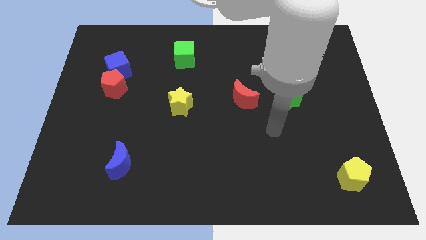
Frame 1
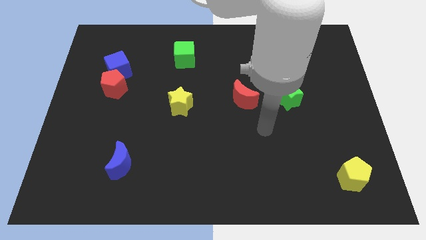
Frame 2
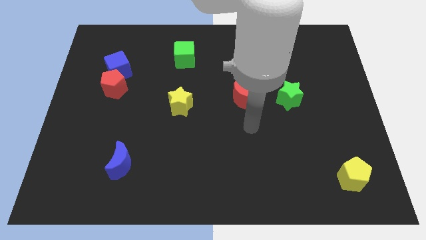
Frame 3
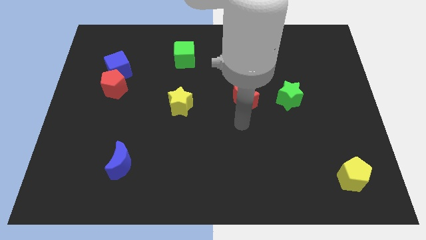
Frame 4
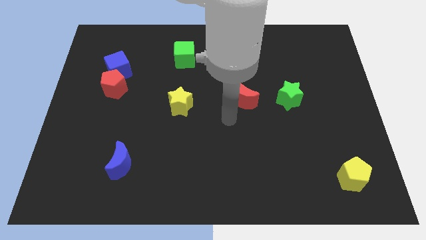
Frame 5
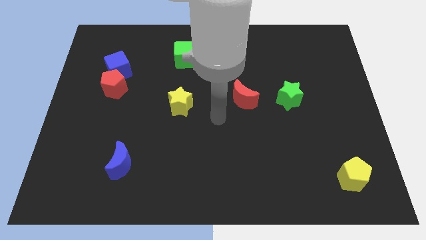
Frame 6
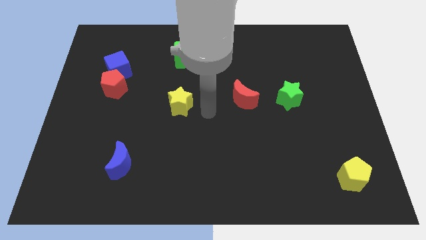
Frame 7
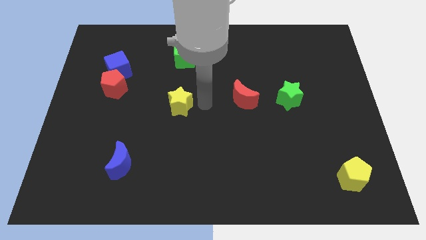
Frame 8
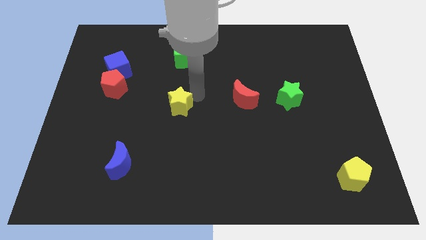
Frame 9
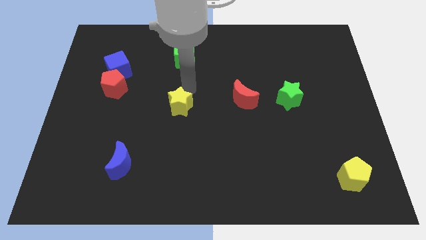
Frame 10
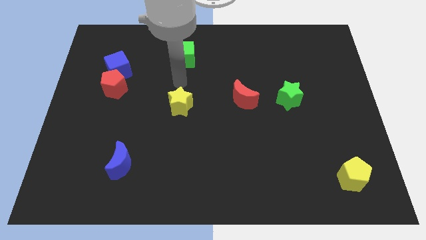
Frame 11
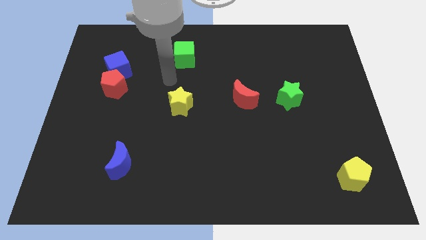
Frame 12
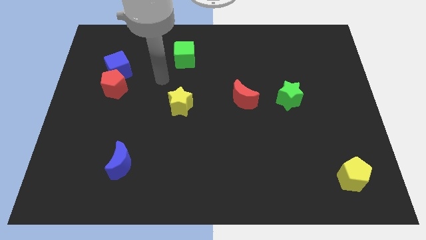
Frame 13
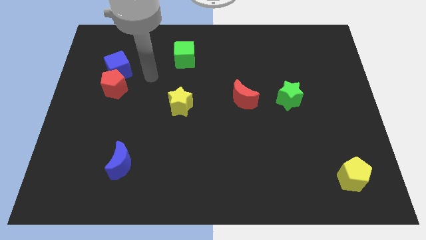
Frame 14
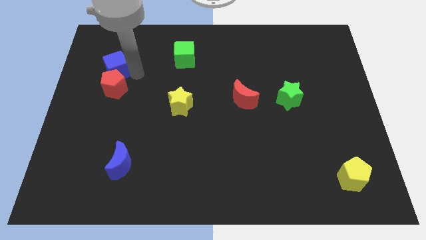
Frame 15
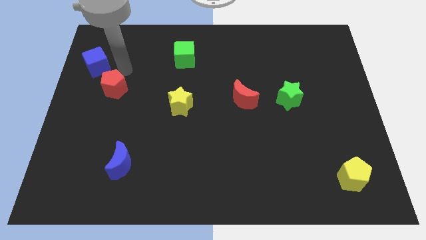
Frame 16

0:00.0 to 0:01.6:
move the red pentagon away from the blue cube

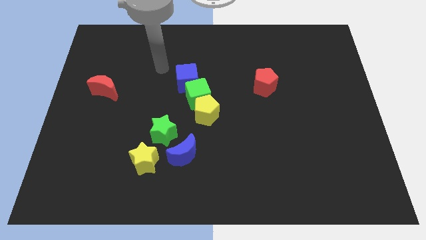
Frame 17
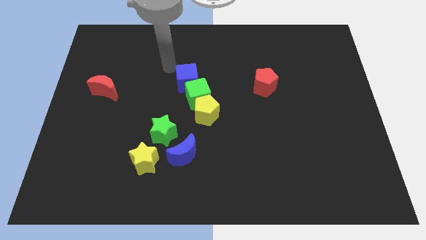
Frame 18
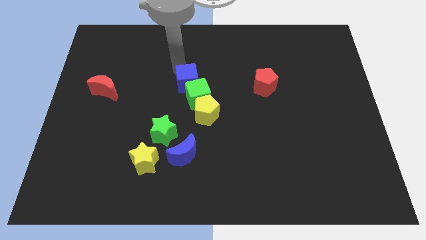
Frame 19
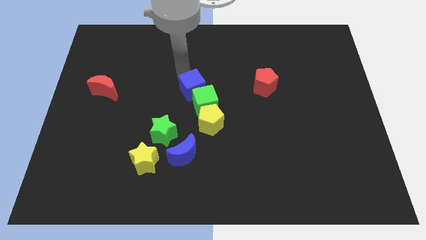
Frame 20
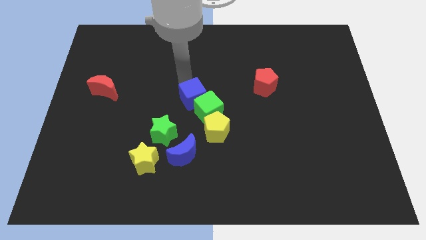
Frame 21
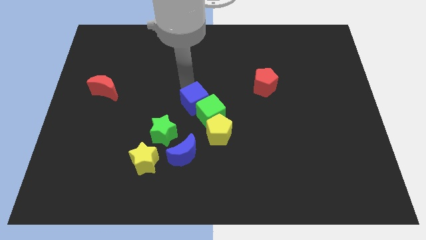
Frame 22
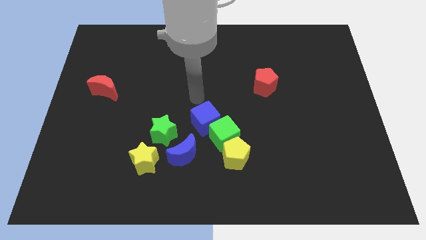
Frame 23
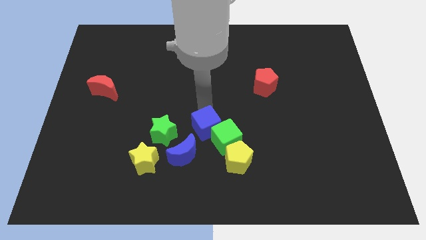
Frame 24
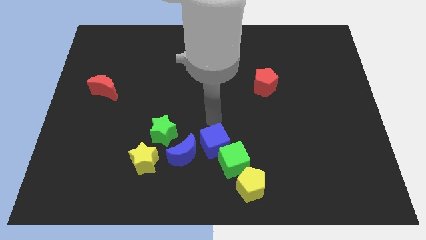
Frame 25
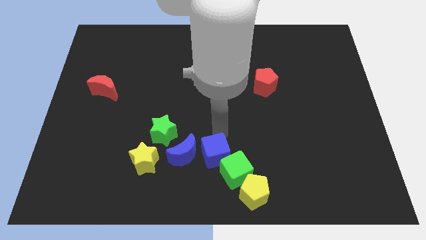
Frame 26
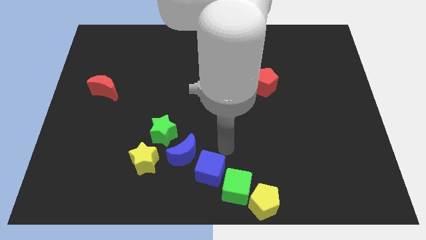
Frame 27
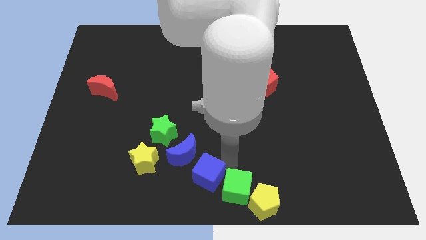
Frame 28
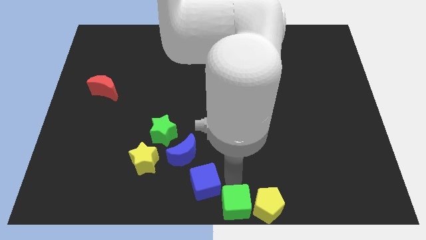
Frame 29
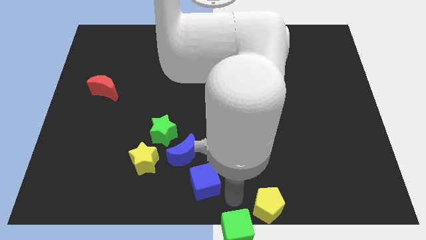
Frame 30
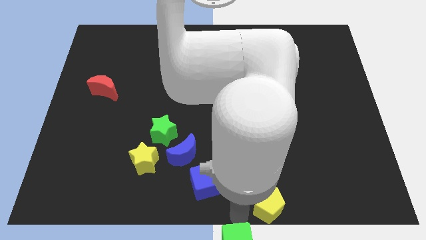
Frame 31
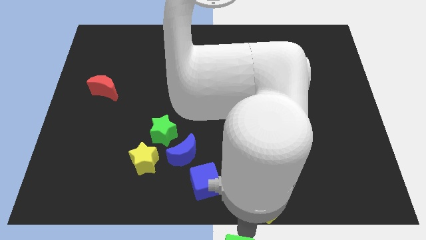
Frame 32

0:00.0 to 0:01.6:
pull the yellow pentagon apart from the green cube

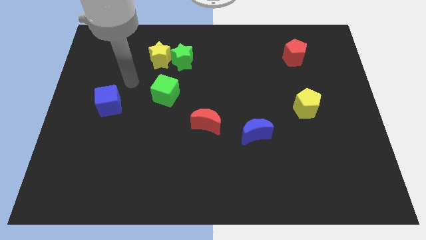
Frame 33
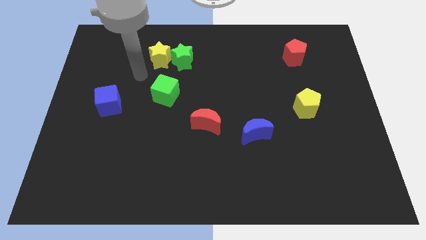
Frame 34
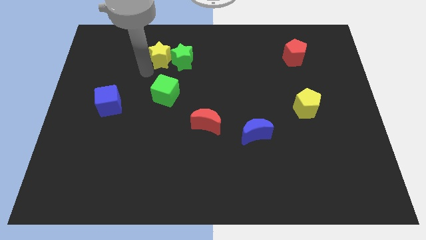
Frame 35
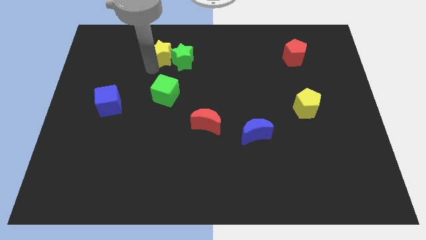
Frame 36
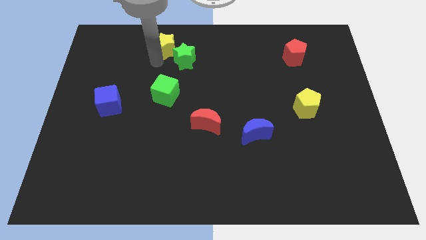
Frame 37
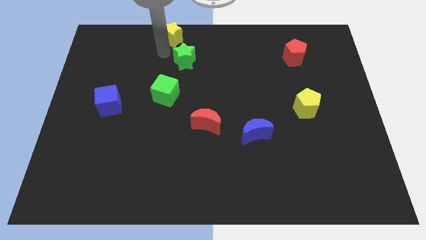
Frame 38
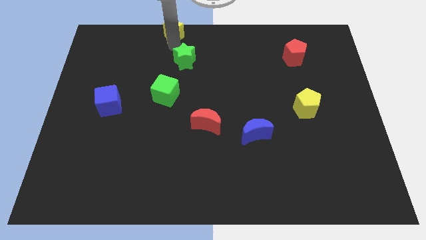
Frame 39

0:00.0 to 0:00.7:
separate the green star from the yellow star

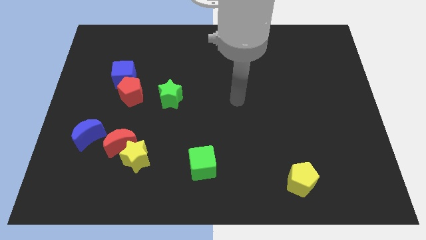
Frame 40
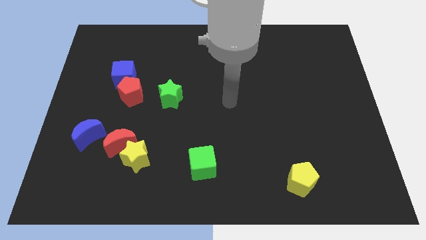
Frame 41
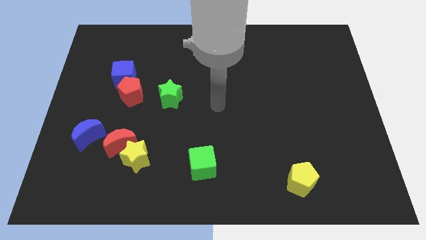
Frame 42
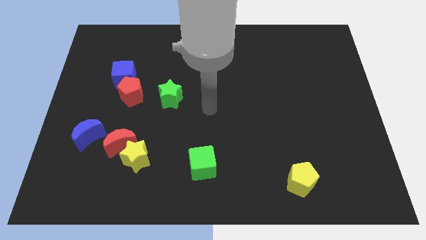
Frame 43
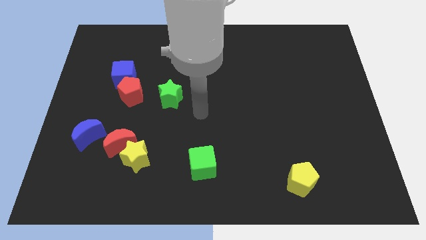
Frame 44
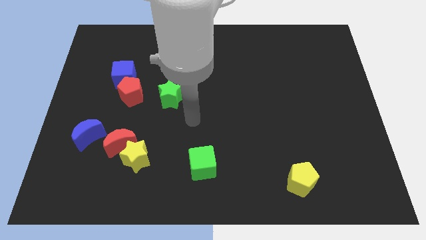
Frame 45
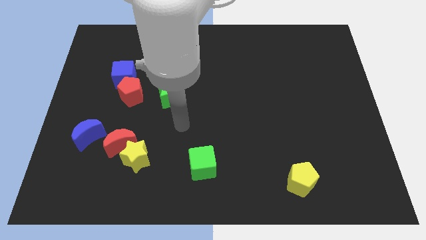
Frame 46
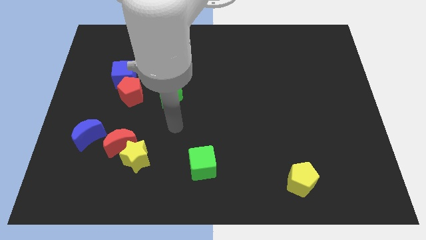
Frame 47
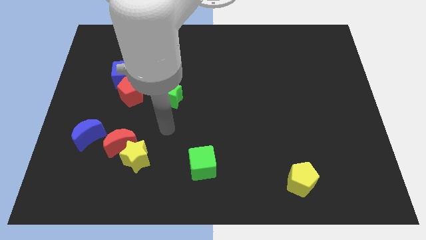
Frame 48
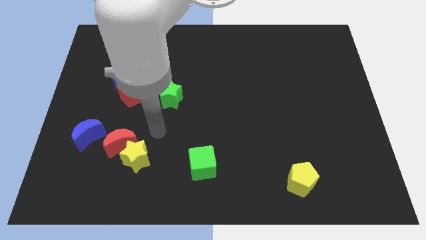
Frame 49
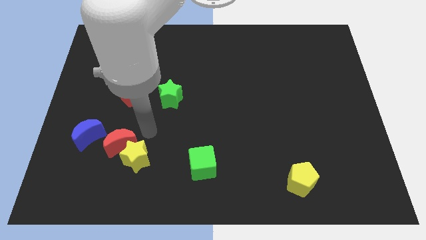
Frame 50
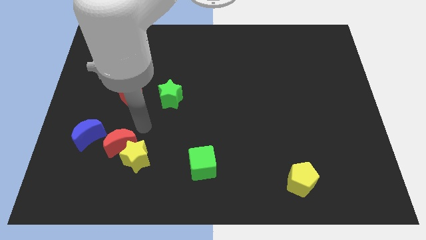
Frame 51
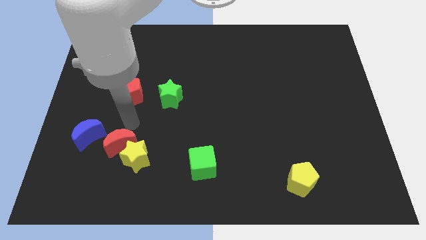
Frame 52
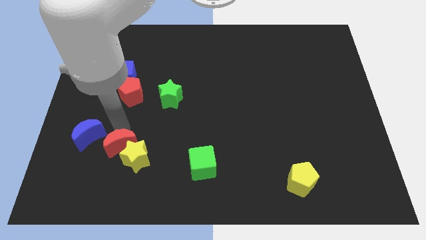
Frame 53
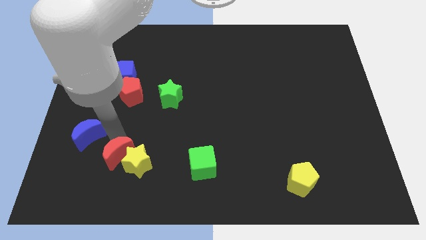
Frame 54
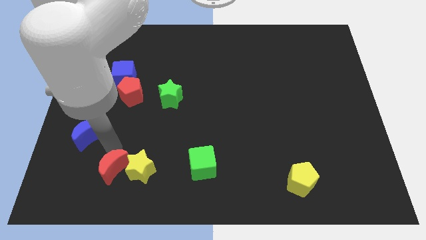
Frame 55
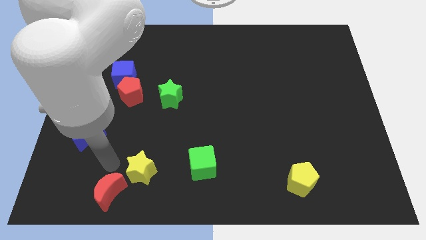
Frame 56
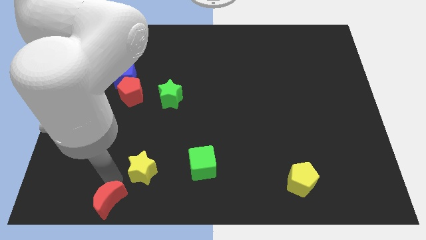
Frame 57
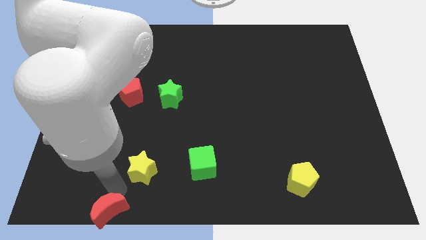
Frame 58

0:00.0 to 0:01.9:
separate the yellow star from the red moon

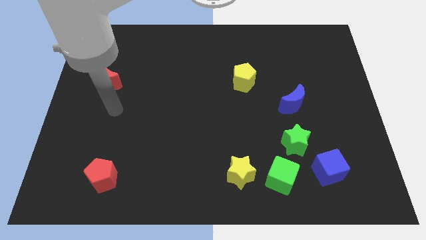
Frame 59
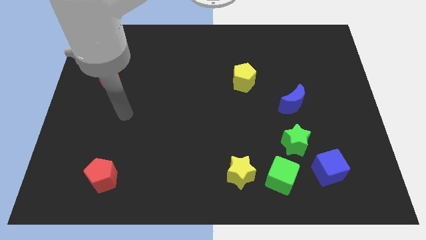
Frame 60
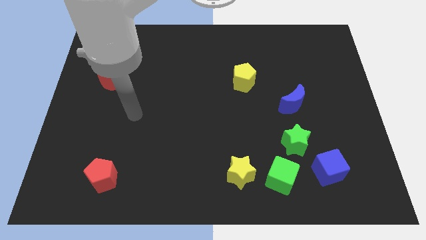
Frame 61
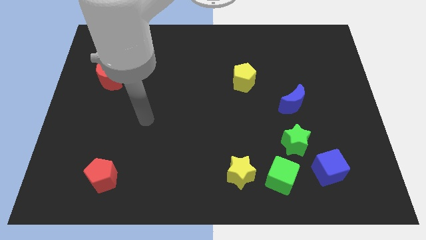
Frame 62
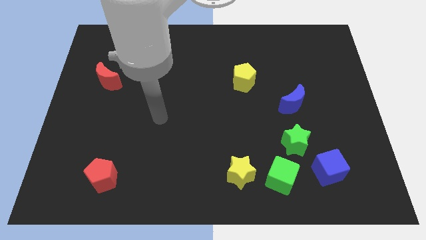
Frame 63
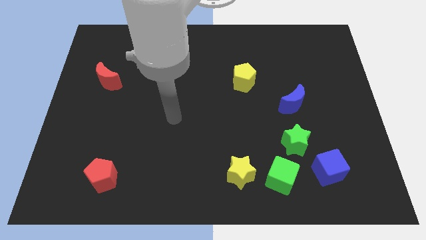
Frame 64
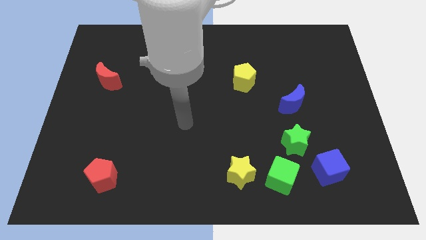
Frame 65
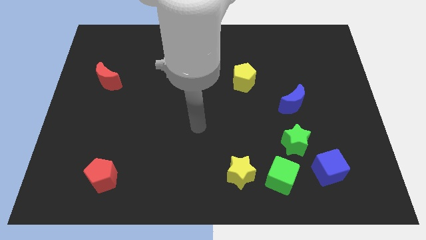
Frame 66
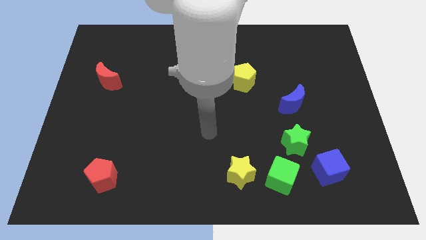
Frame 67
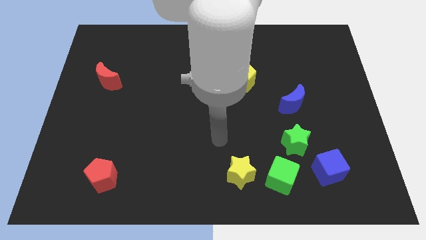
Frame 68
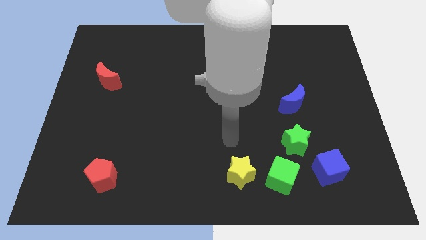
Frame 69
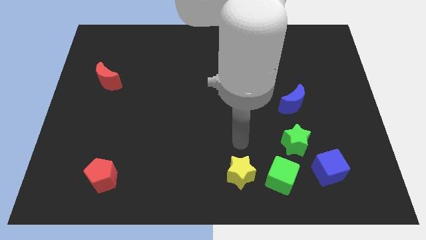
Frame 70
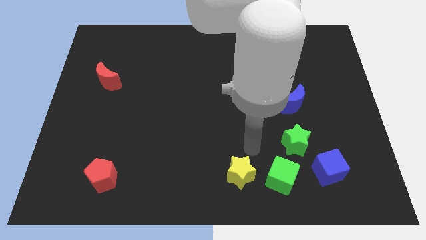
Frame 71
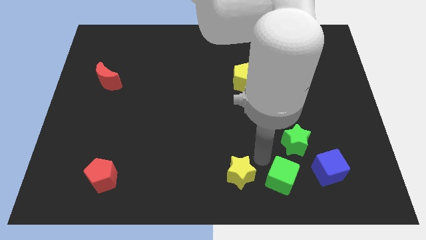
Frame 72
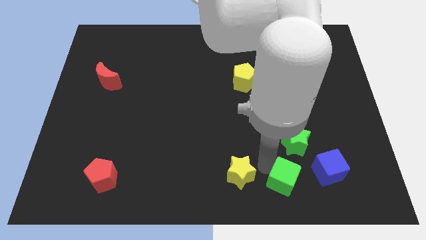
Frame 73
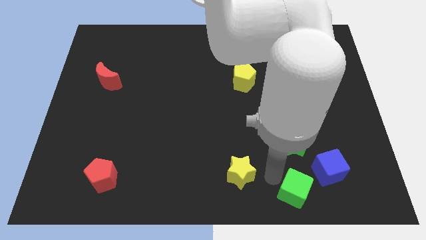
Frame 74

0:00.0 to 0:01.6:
separate the yellow star from the green cube

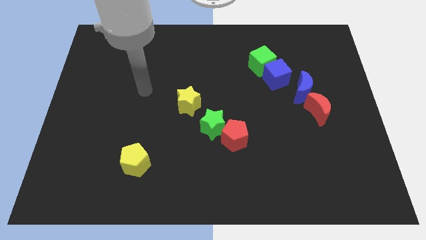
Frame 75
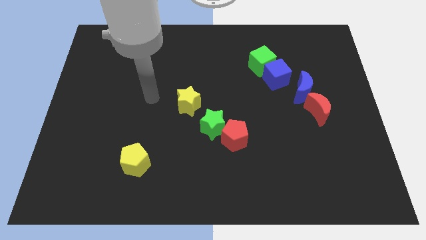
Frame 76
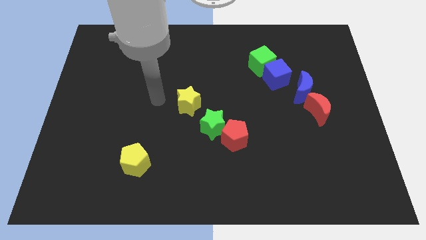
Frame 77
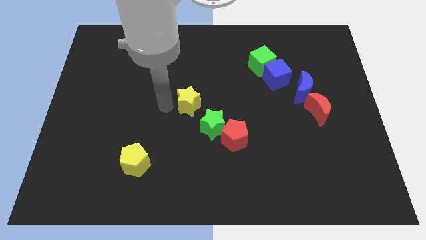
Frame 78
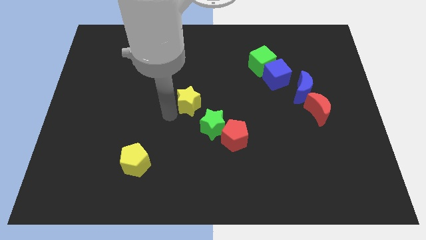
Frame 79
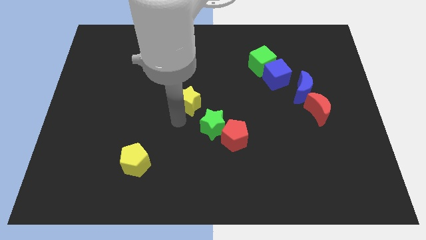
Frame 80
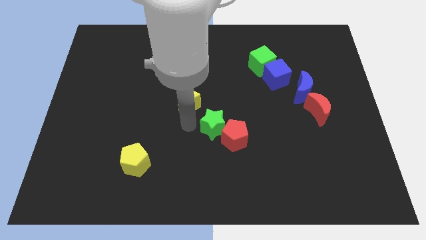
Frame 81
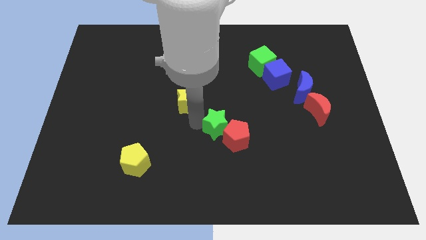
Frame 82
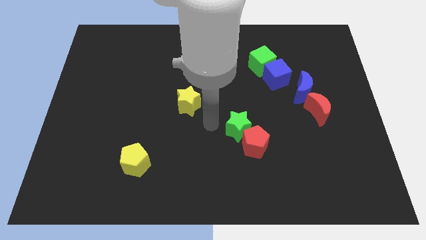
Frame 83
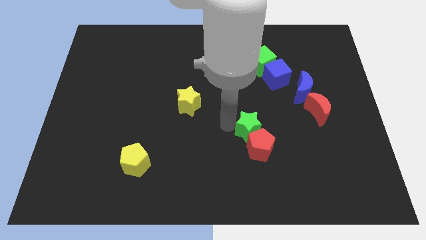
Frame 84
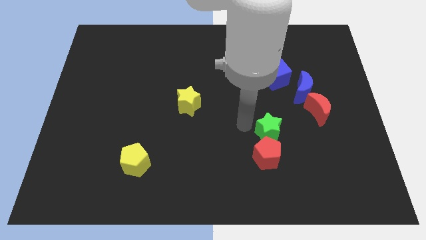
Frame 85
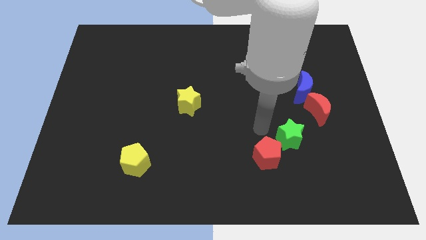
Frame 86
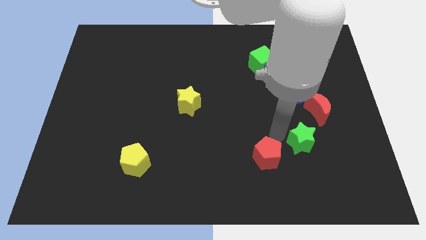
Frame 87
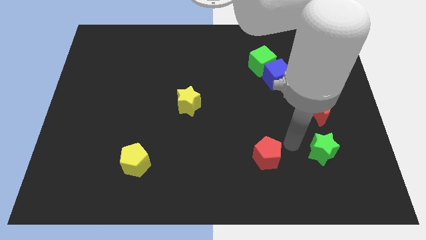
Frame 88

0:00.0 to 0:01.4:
separate the red pentagon from the green star

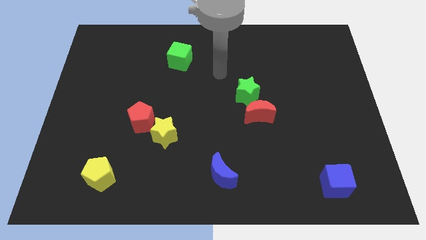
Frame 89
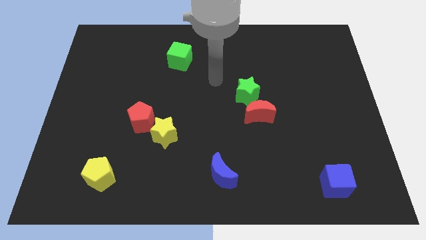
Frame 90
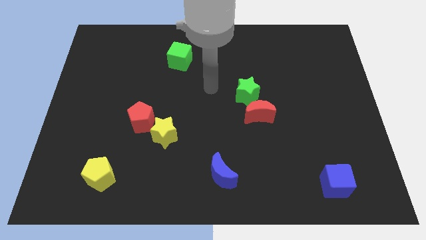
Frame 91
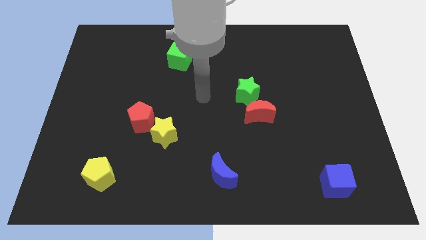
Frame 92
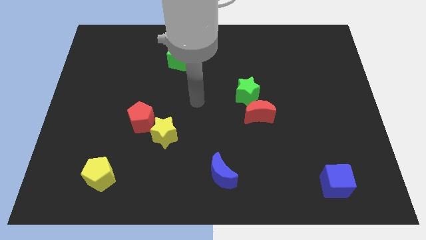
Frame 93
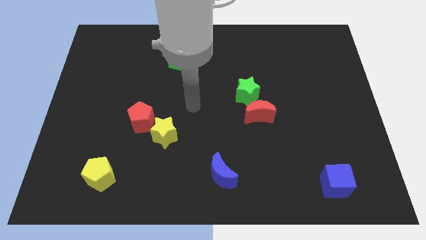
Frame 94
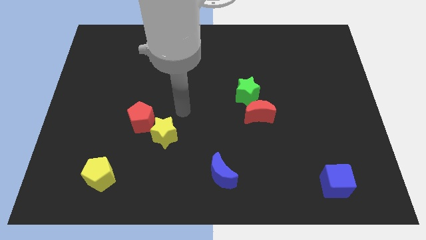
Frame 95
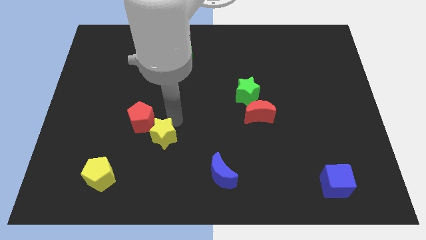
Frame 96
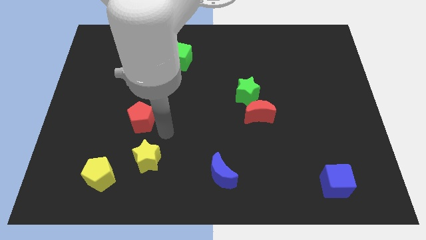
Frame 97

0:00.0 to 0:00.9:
separate the red pentagon from the yellow star
